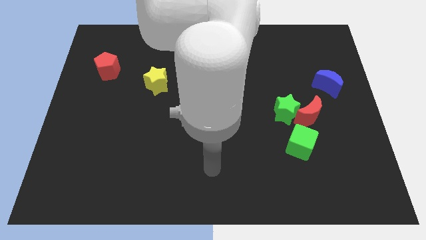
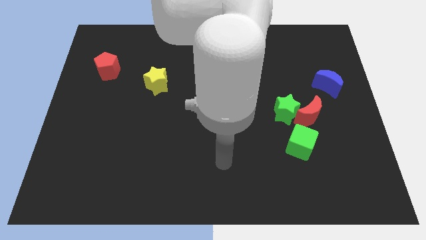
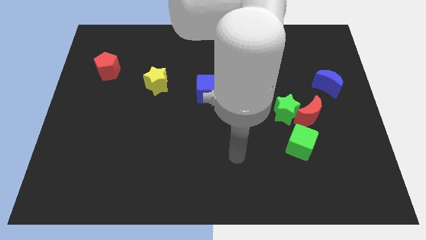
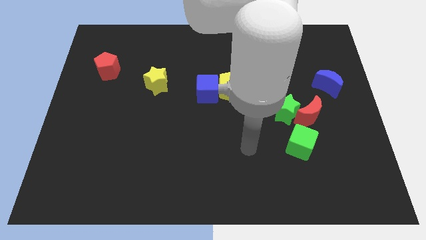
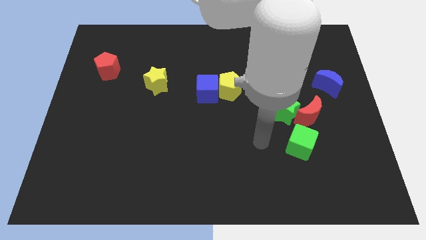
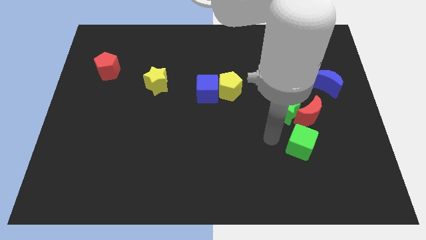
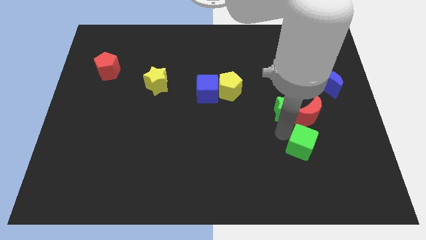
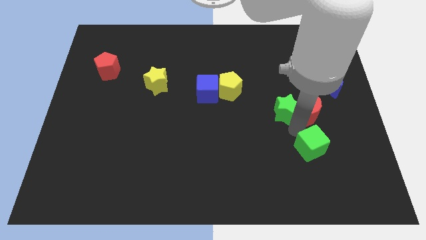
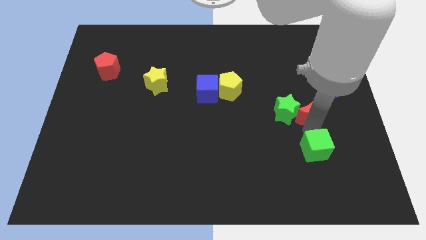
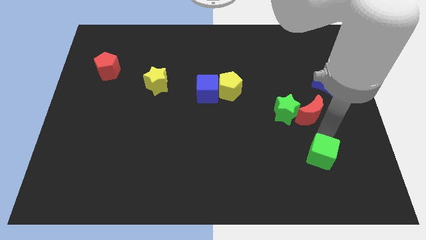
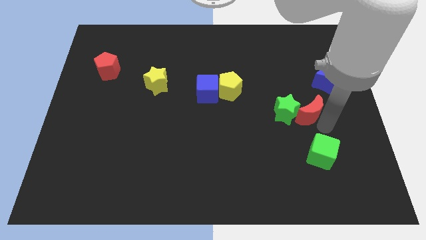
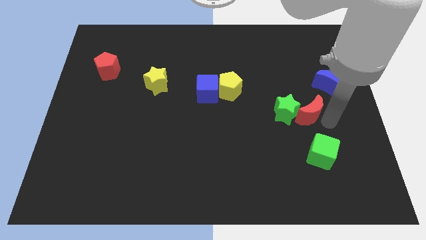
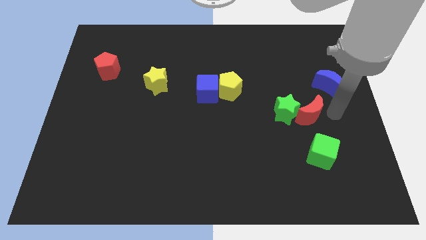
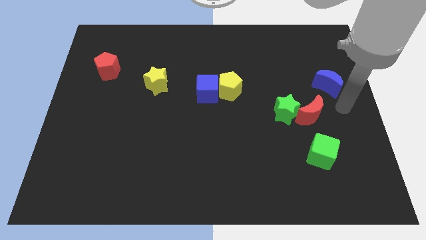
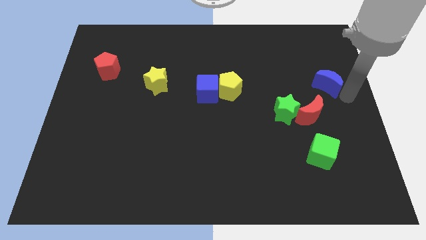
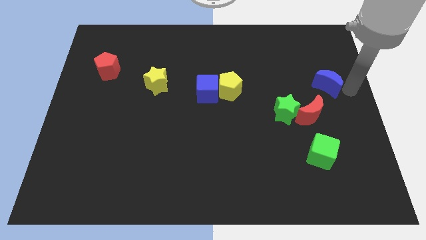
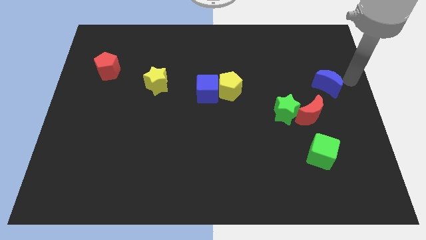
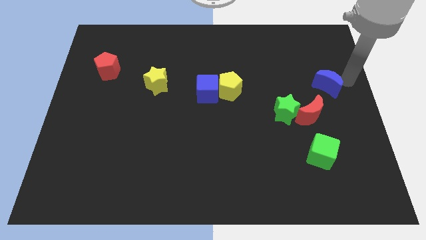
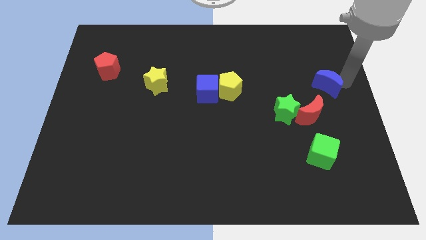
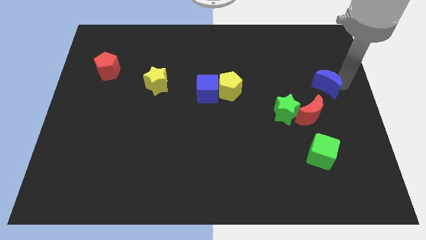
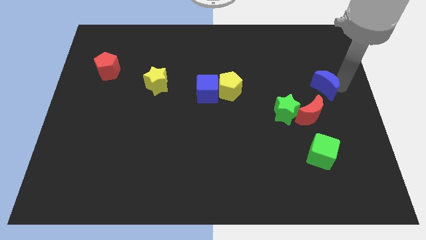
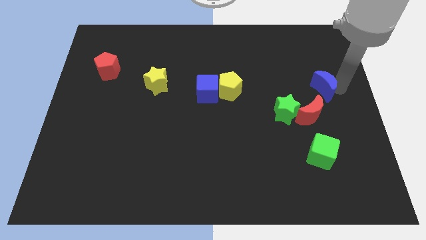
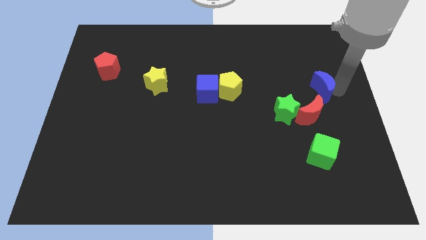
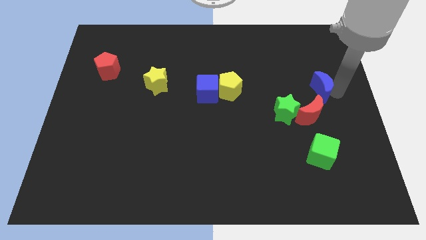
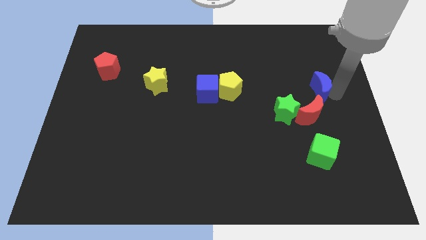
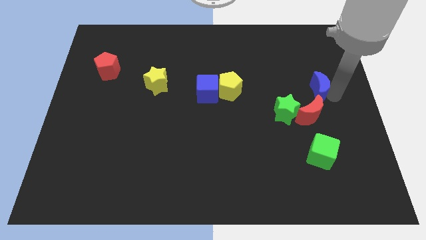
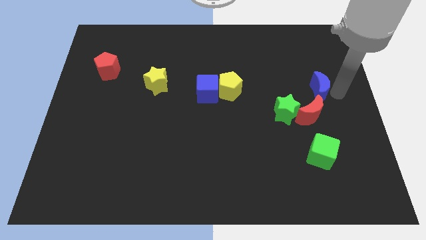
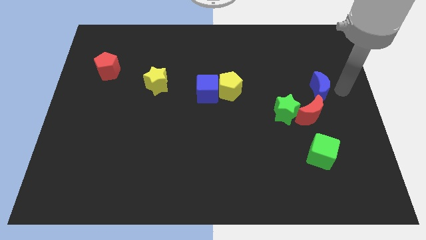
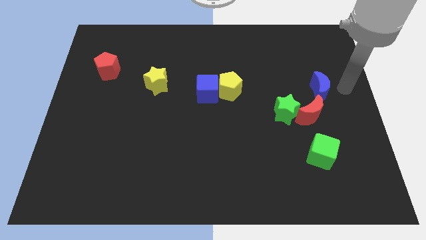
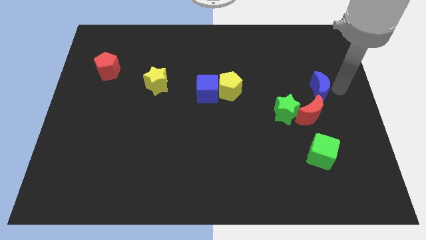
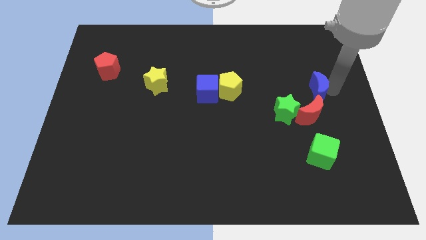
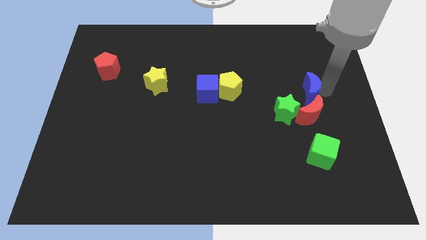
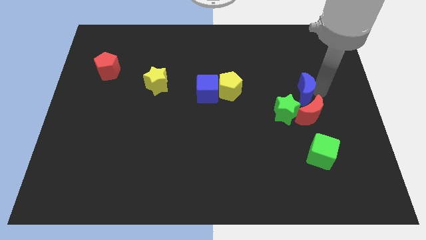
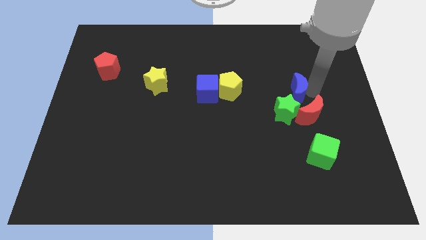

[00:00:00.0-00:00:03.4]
slightly push the blue moon down and then left

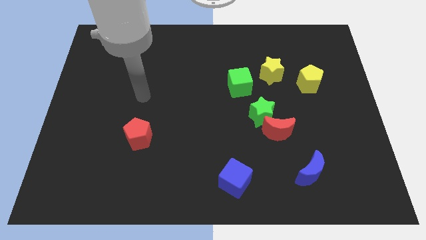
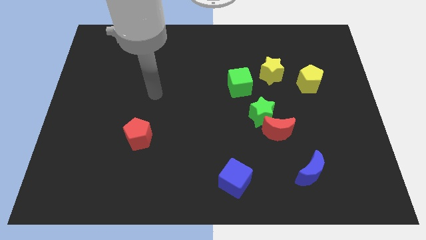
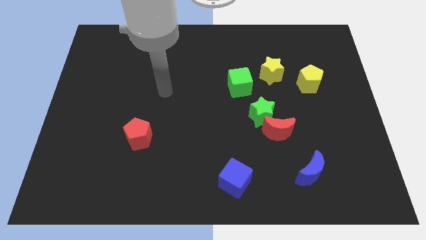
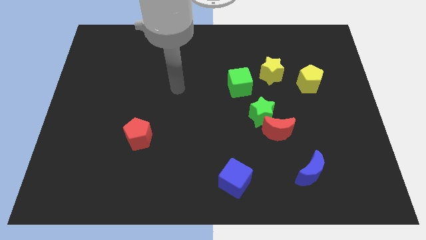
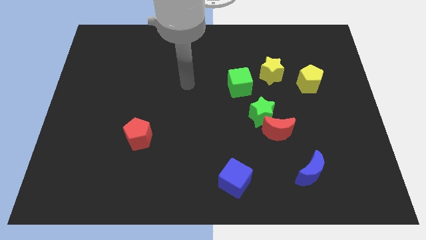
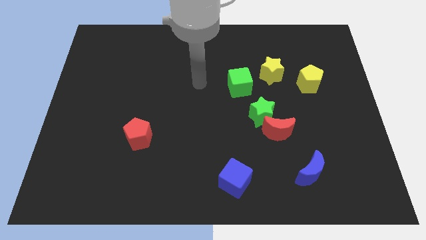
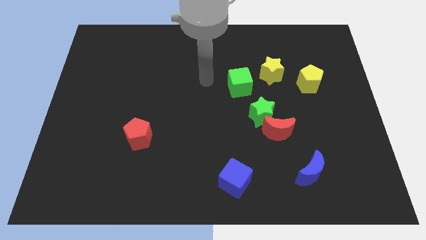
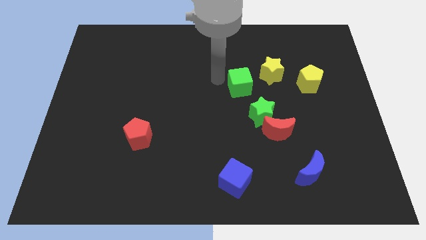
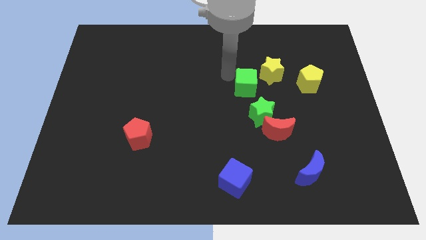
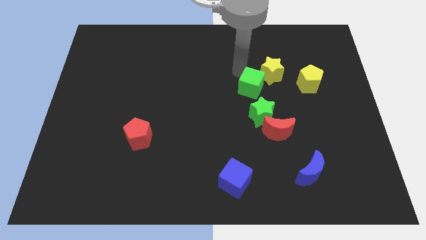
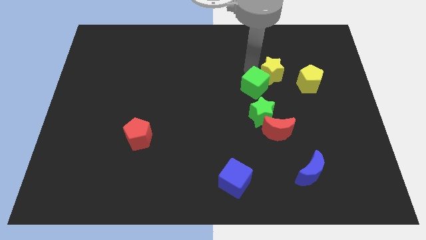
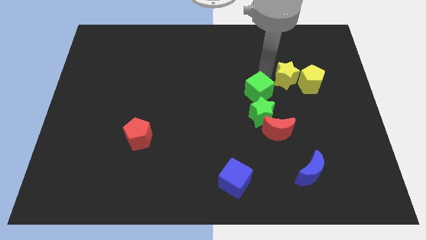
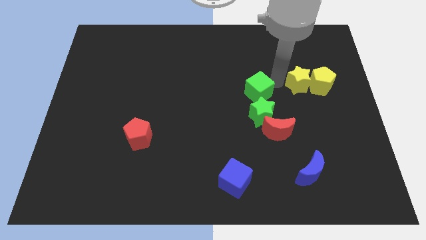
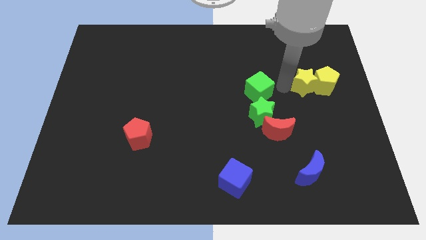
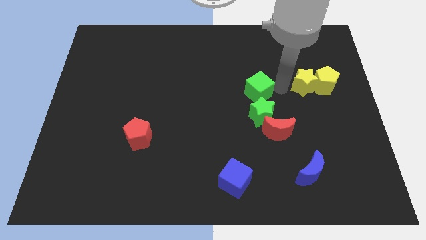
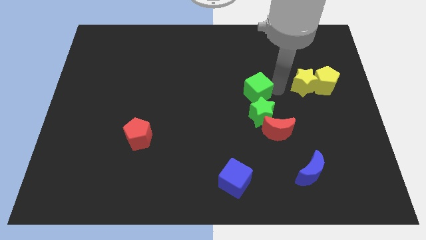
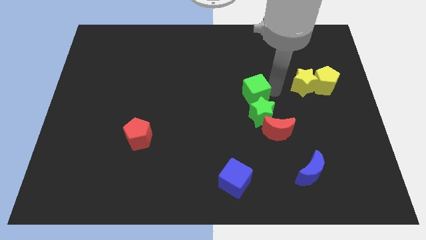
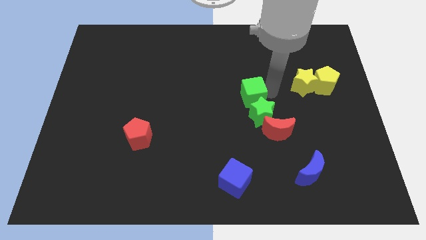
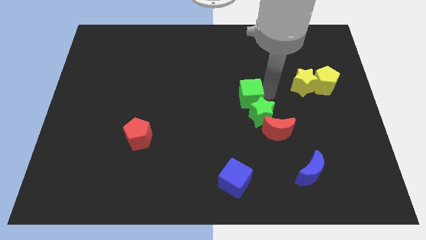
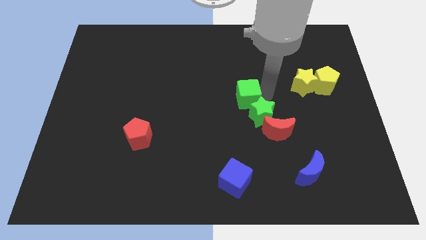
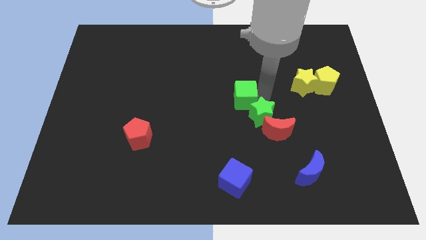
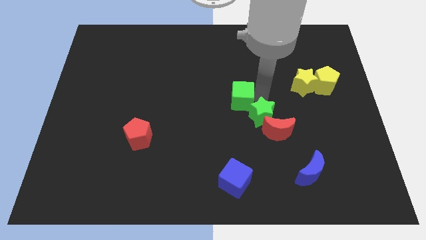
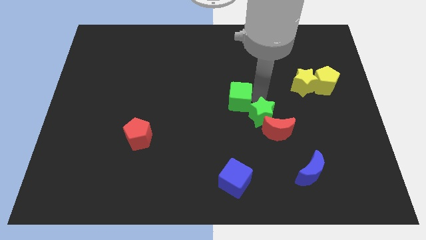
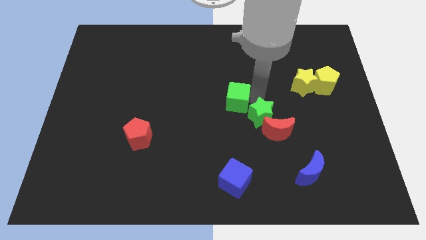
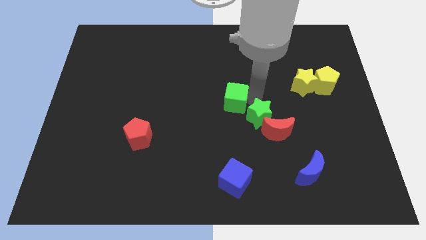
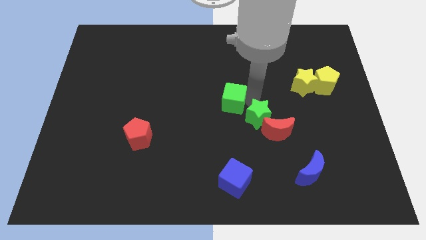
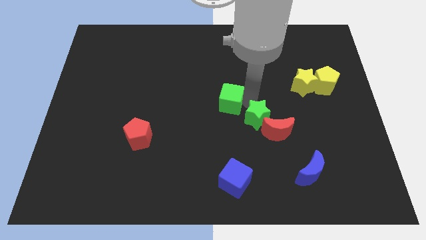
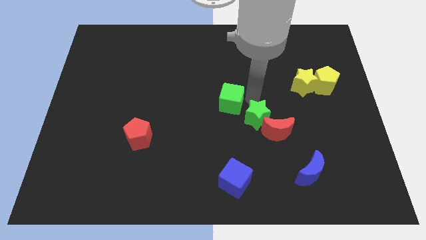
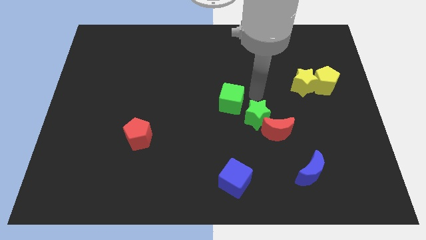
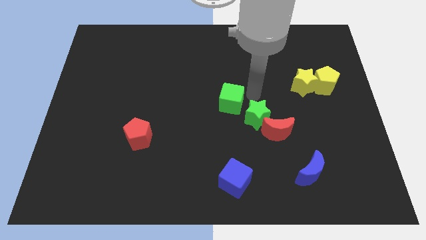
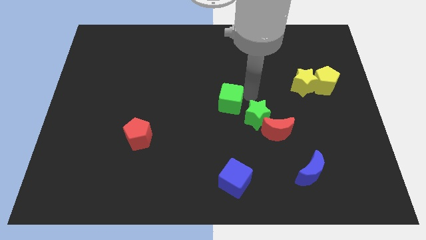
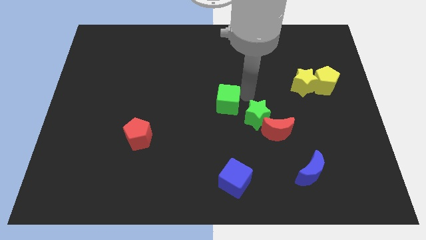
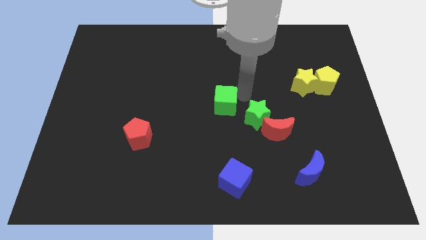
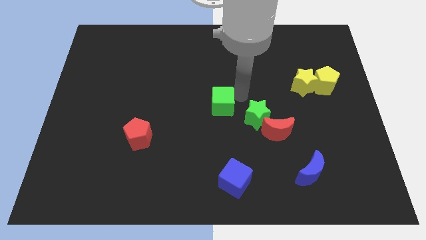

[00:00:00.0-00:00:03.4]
slightly slide the green cube downwards and left

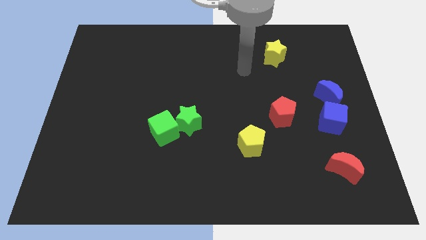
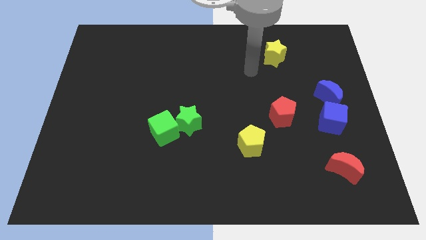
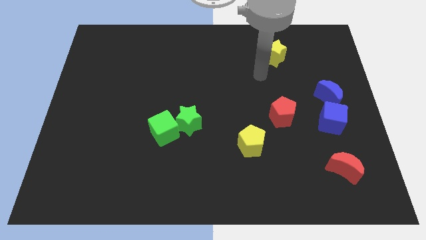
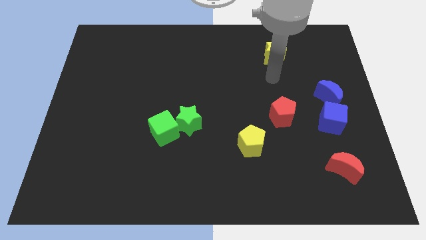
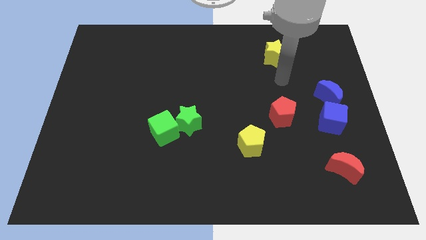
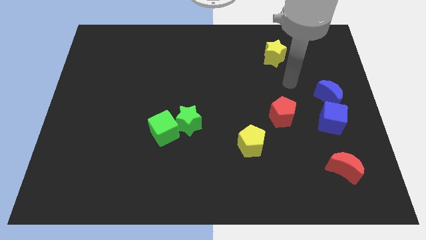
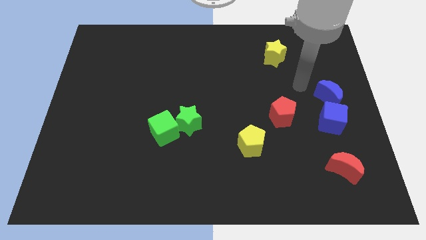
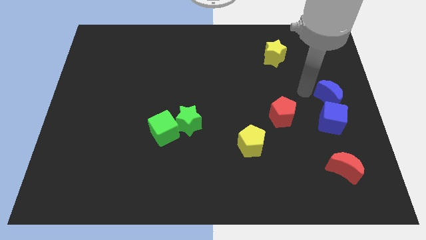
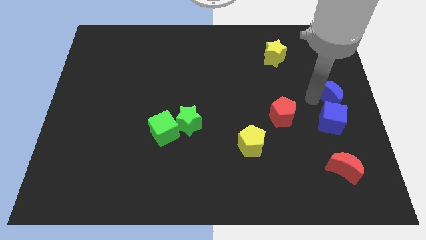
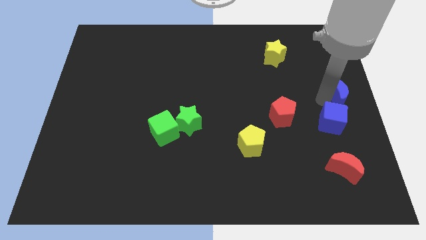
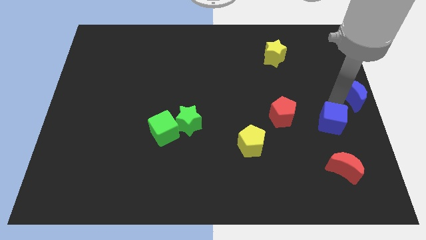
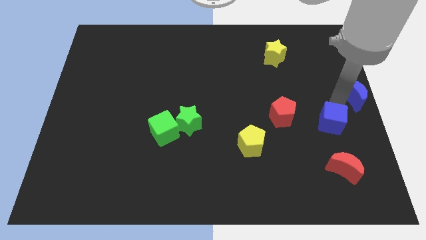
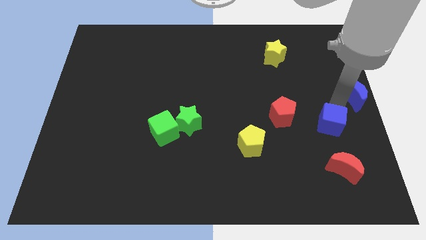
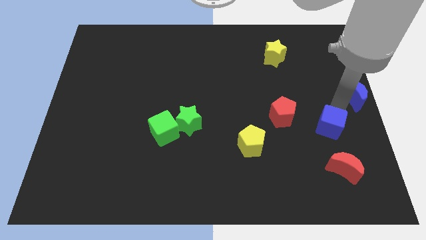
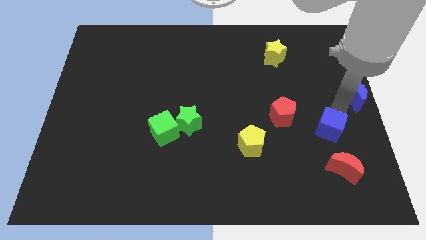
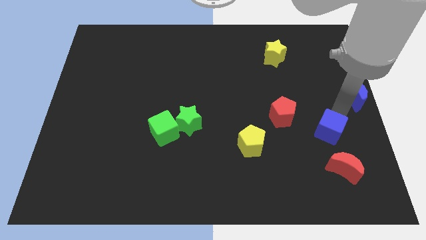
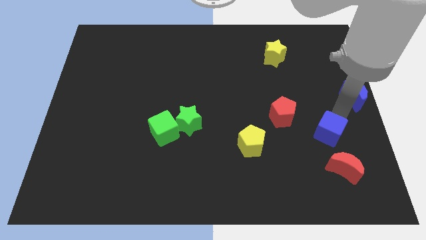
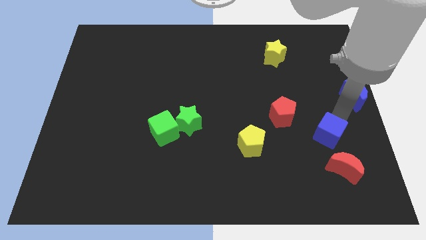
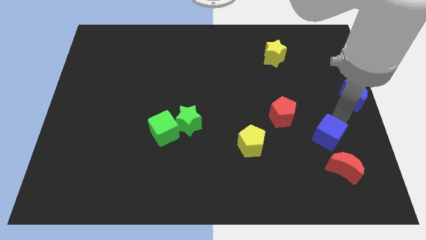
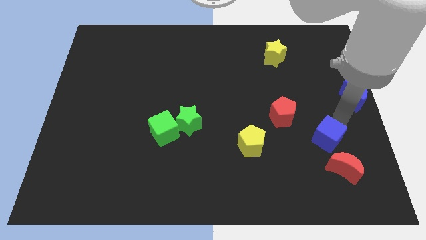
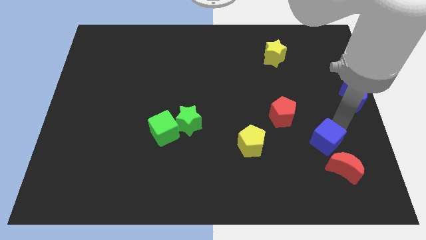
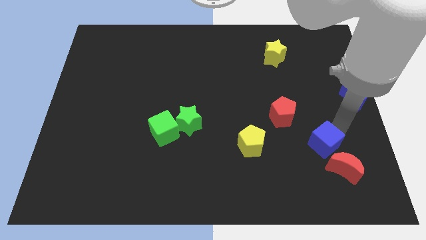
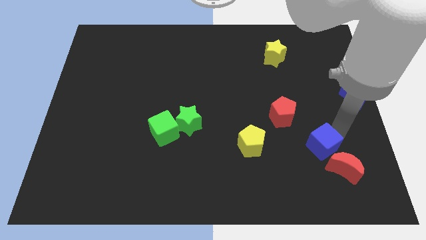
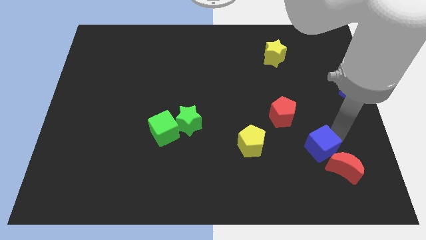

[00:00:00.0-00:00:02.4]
push the blue cube down and left a little bit
